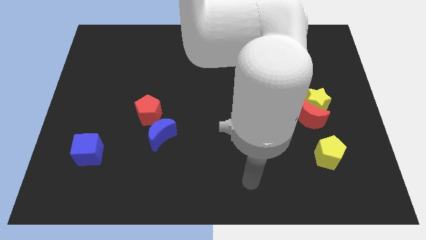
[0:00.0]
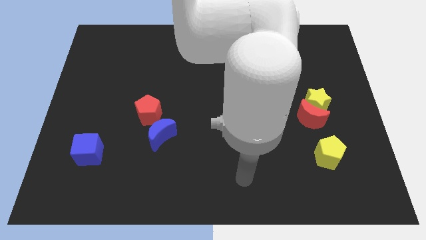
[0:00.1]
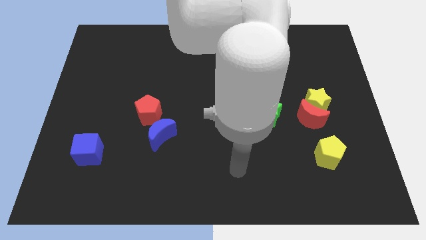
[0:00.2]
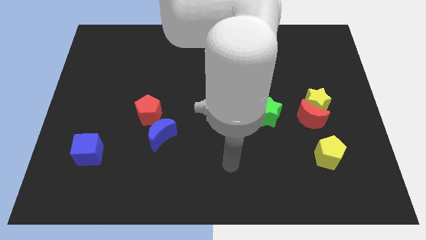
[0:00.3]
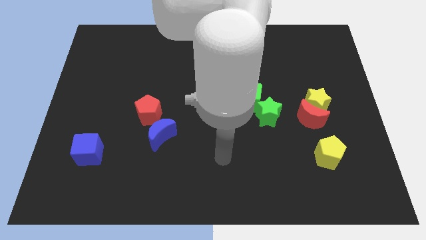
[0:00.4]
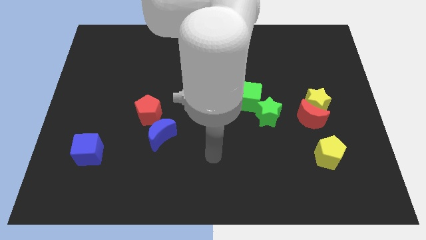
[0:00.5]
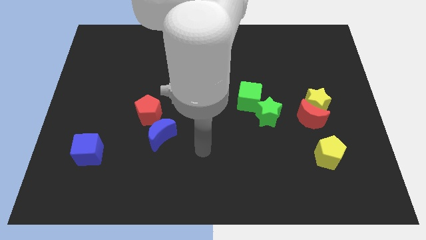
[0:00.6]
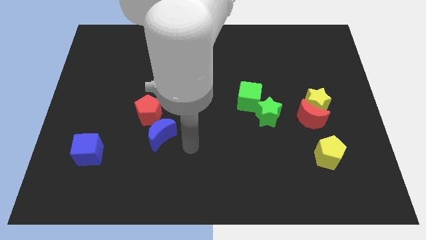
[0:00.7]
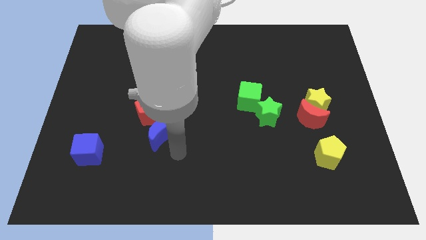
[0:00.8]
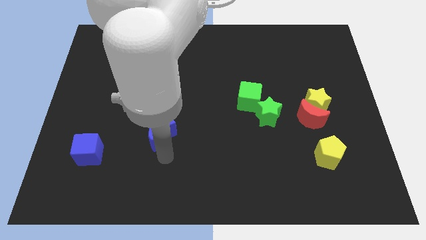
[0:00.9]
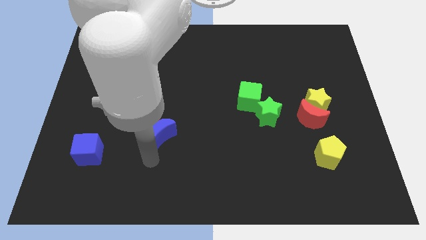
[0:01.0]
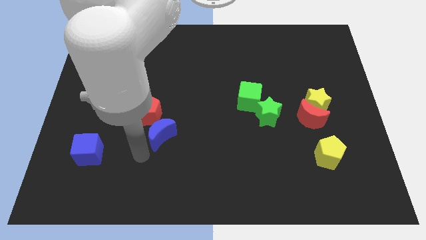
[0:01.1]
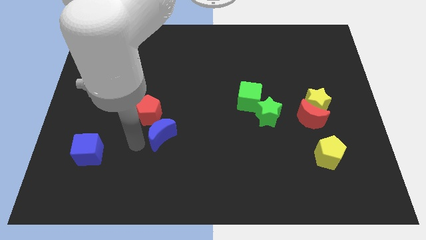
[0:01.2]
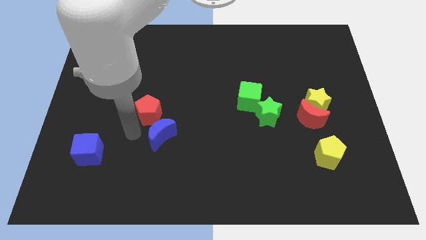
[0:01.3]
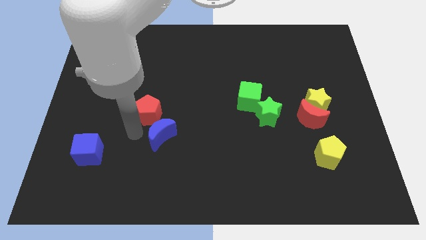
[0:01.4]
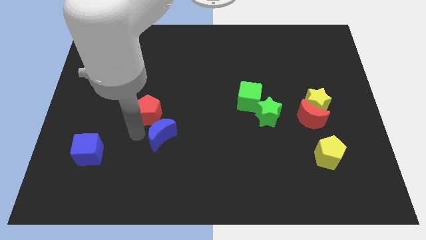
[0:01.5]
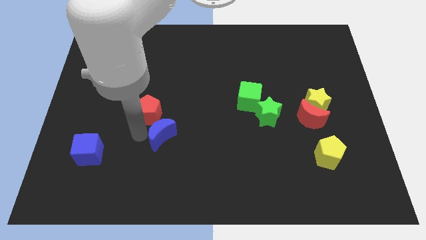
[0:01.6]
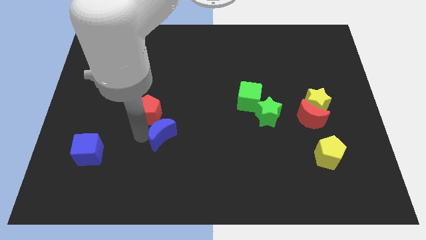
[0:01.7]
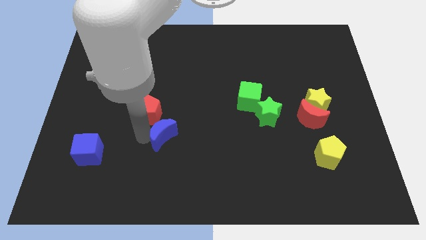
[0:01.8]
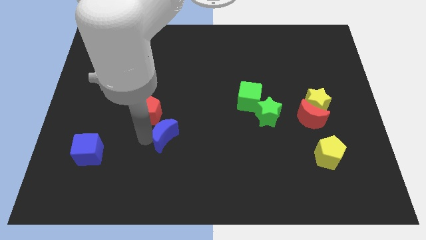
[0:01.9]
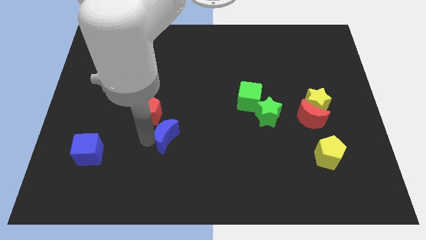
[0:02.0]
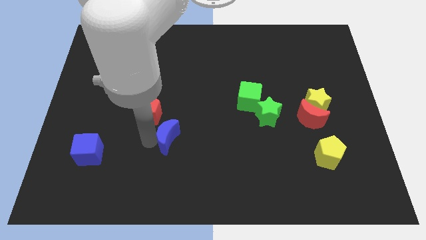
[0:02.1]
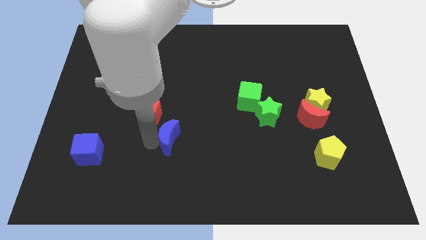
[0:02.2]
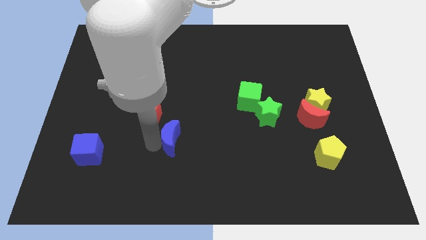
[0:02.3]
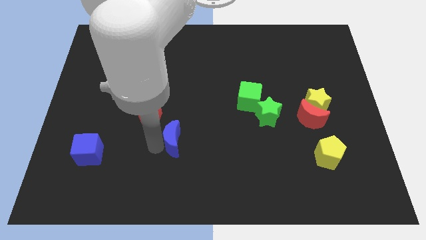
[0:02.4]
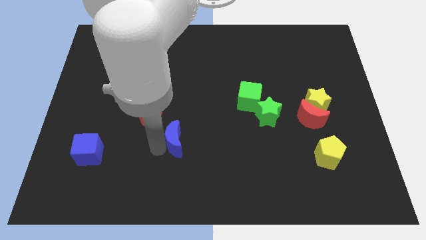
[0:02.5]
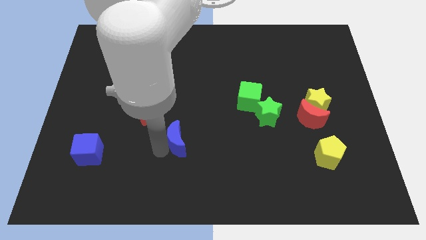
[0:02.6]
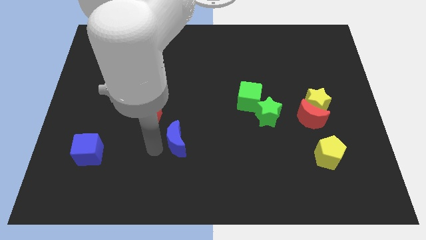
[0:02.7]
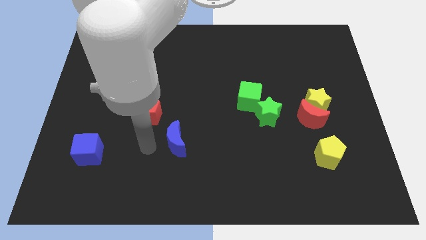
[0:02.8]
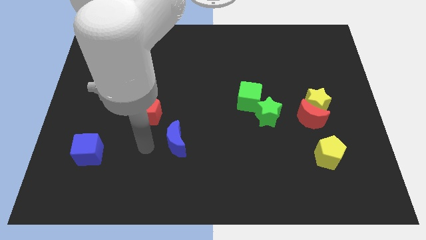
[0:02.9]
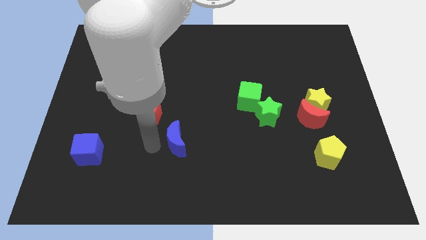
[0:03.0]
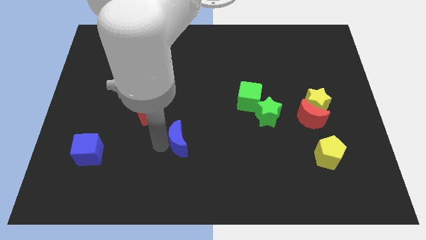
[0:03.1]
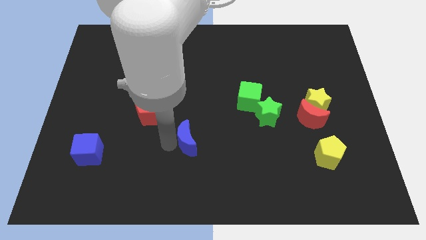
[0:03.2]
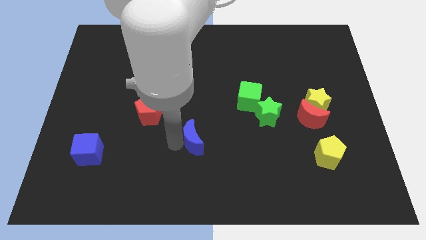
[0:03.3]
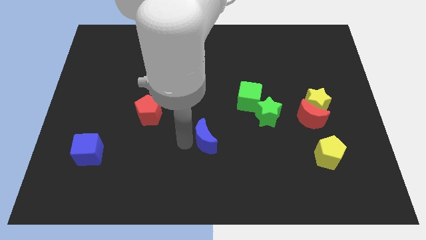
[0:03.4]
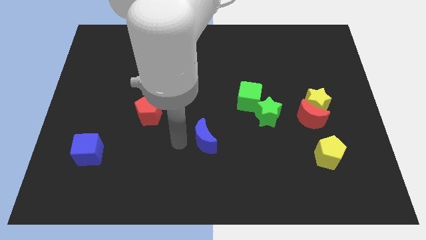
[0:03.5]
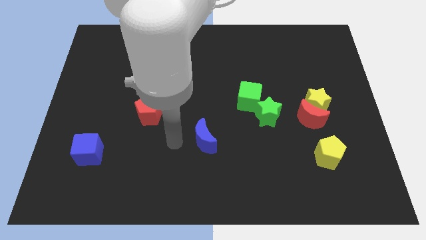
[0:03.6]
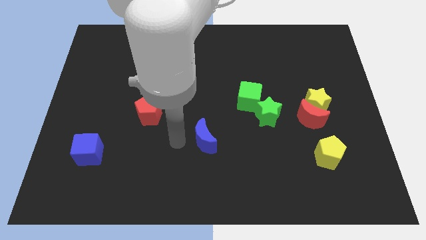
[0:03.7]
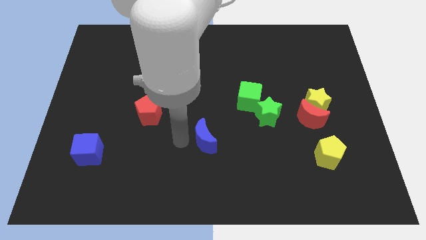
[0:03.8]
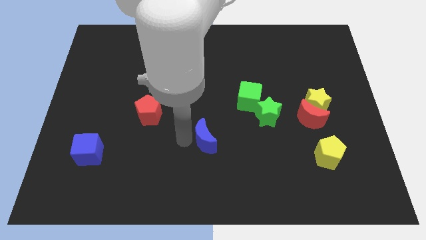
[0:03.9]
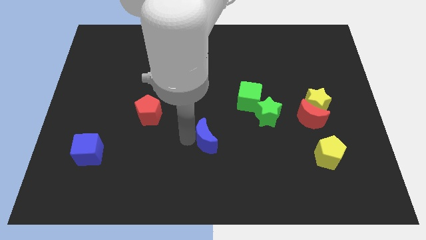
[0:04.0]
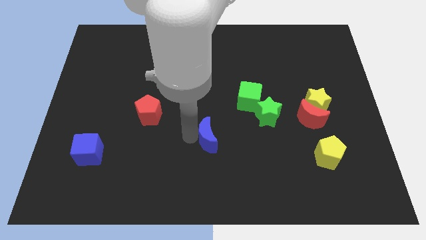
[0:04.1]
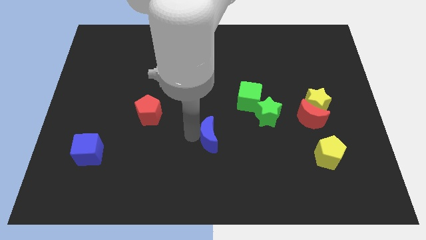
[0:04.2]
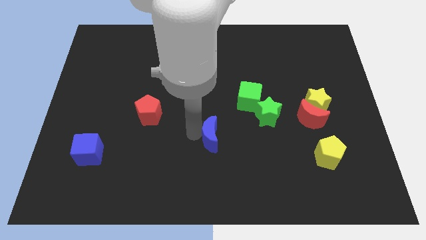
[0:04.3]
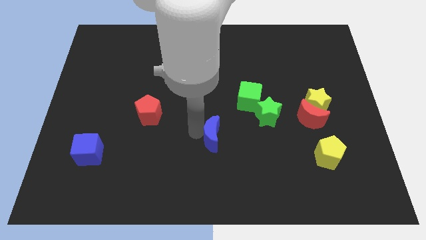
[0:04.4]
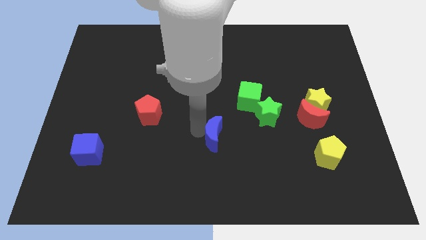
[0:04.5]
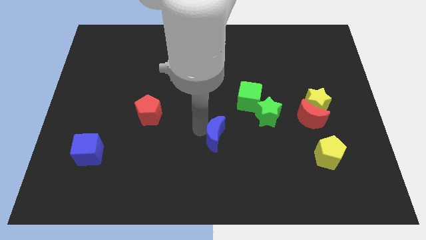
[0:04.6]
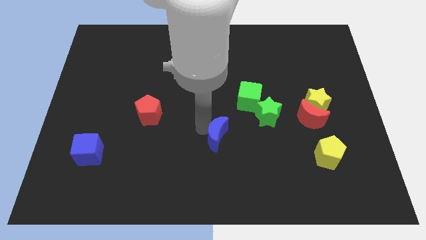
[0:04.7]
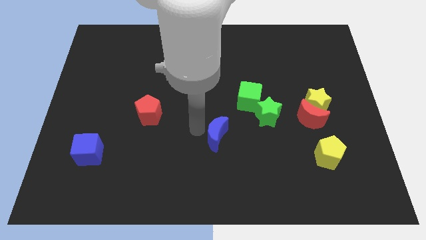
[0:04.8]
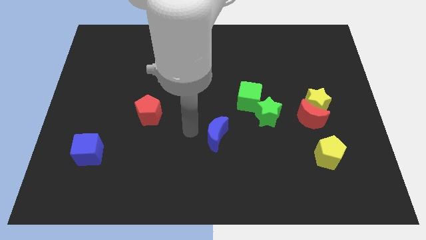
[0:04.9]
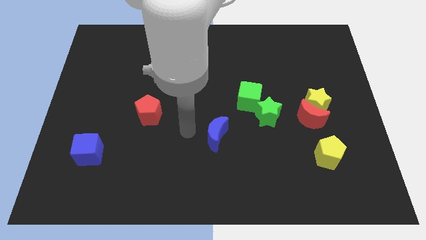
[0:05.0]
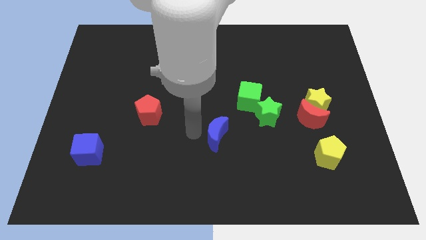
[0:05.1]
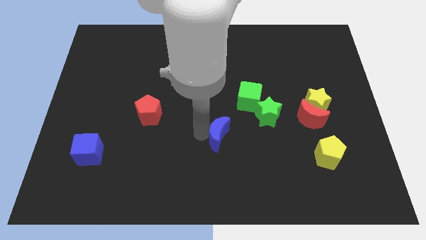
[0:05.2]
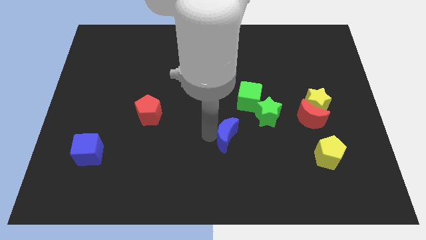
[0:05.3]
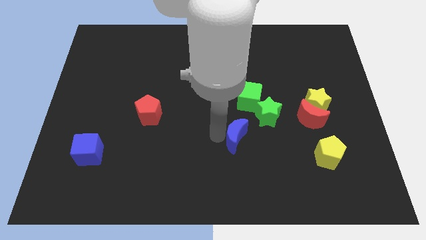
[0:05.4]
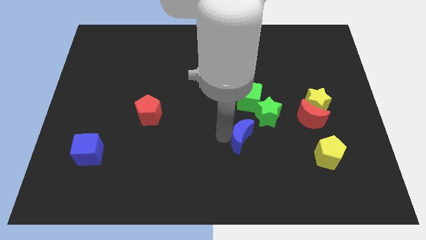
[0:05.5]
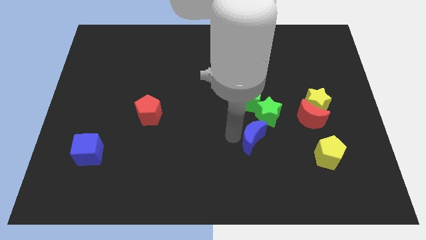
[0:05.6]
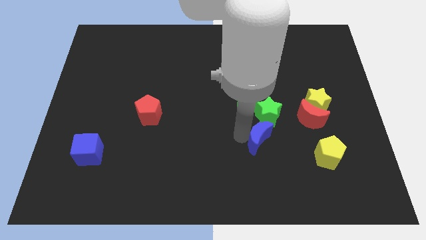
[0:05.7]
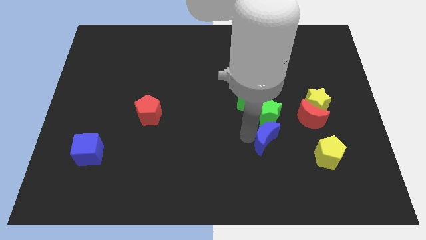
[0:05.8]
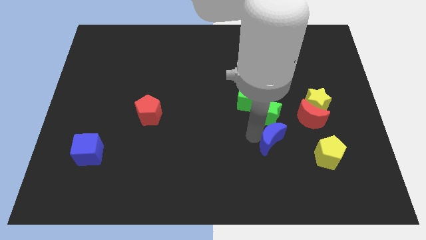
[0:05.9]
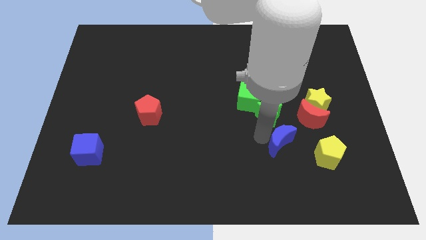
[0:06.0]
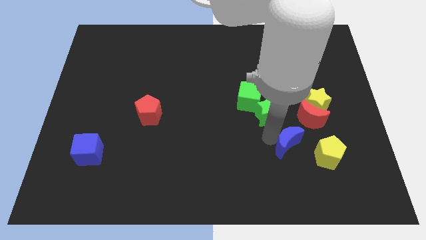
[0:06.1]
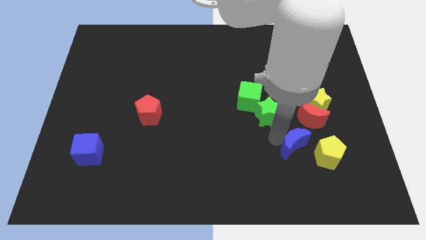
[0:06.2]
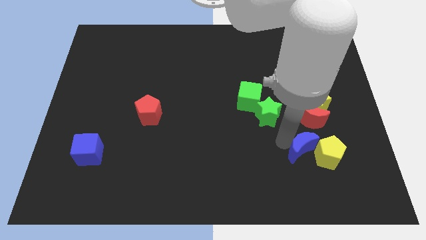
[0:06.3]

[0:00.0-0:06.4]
move the blue moon to the yellow pentagon

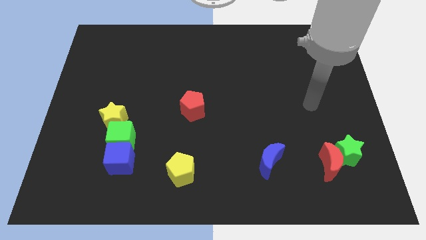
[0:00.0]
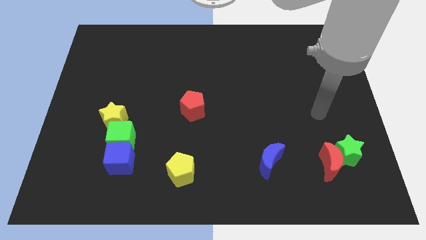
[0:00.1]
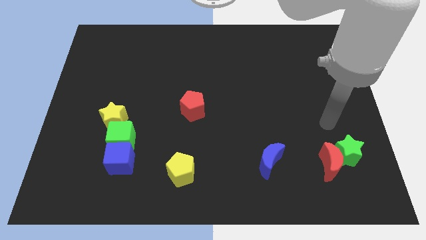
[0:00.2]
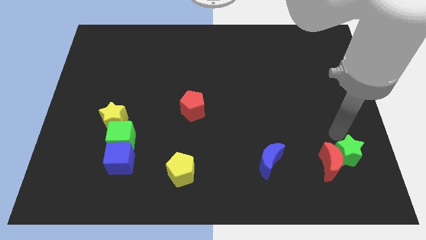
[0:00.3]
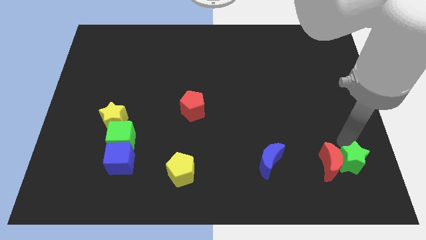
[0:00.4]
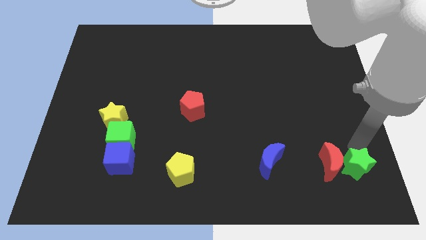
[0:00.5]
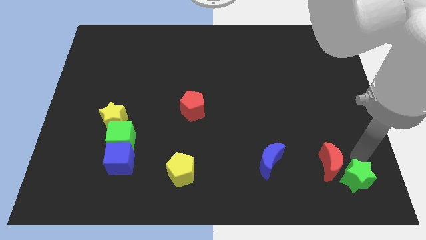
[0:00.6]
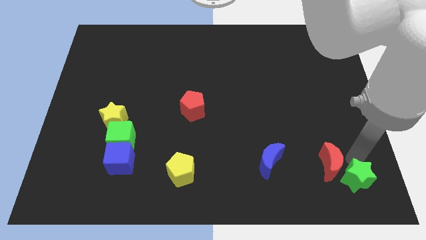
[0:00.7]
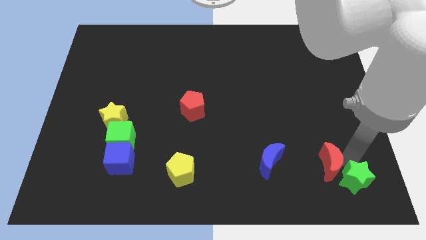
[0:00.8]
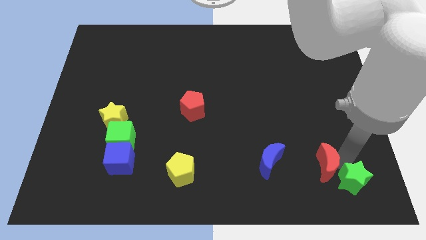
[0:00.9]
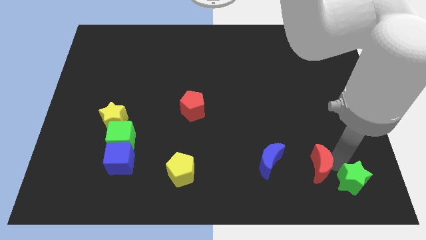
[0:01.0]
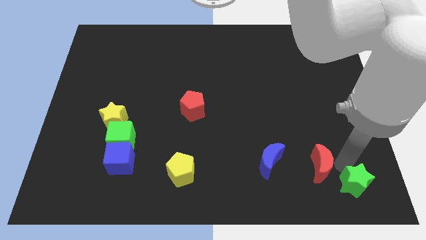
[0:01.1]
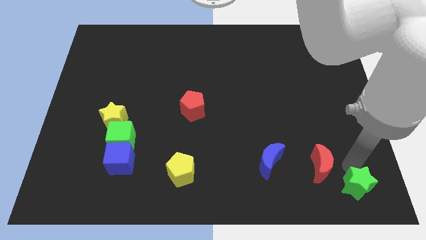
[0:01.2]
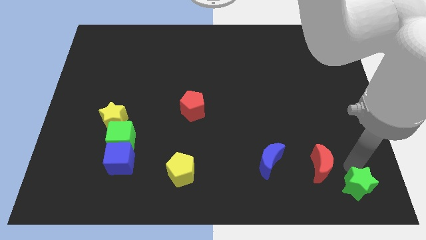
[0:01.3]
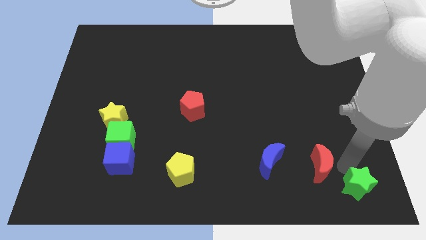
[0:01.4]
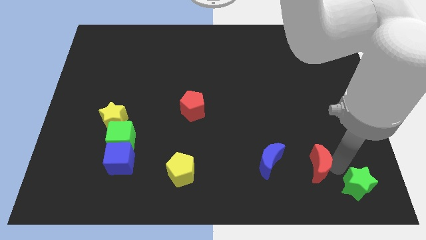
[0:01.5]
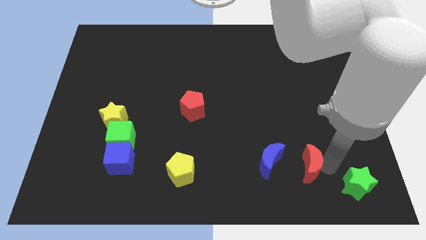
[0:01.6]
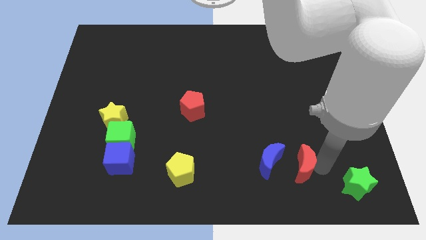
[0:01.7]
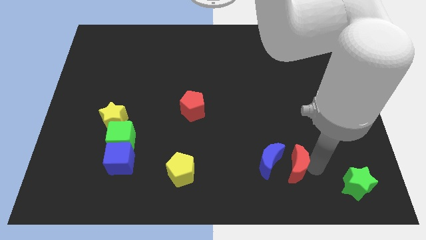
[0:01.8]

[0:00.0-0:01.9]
move the red moon towards the blue moon
